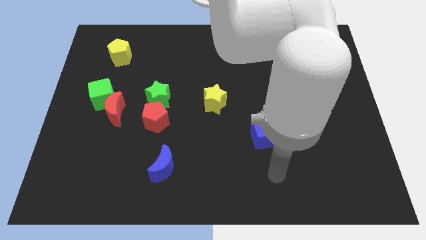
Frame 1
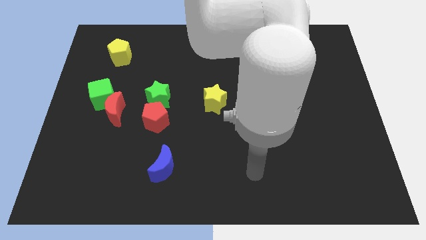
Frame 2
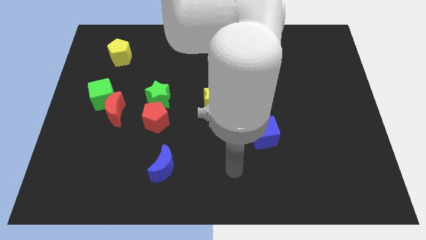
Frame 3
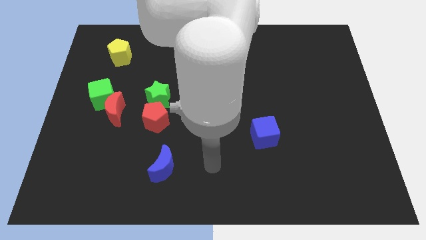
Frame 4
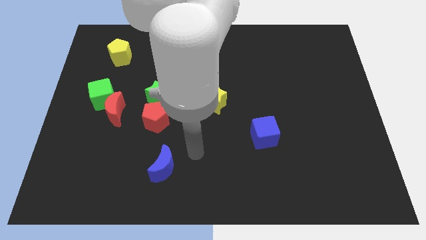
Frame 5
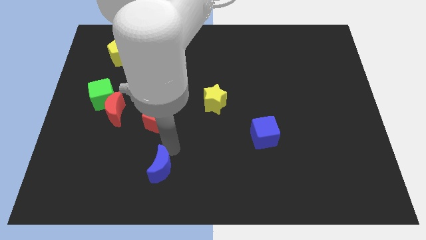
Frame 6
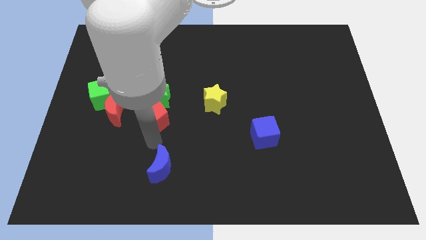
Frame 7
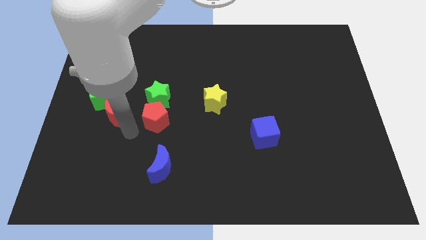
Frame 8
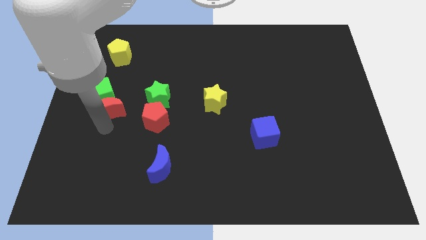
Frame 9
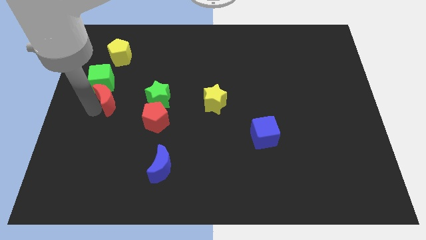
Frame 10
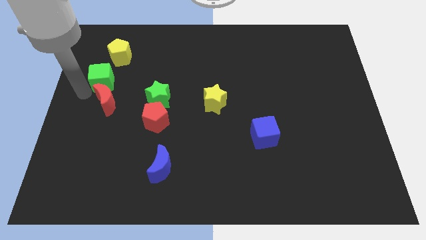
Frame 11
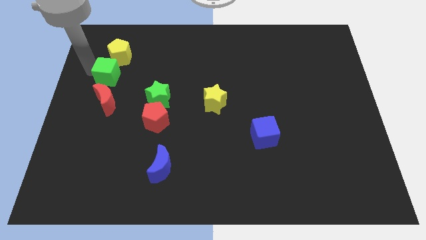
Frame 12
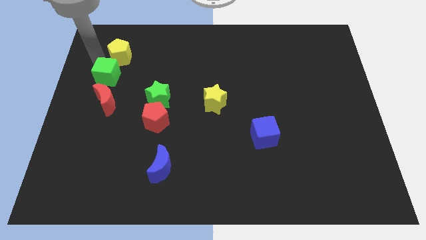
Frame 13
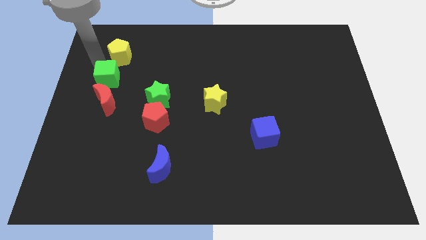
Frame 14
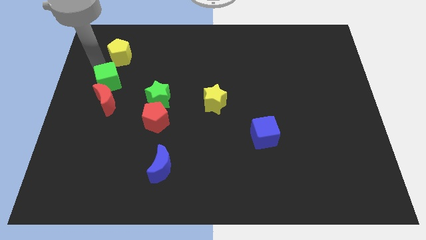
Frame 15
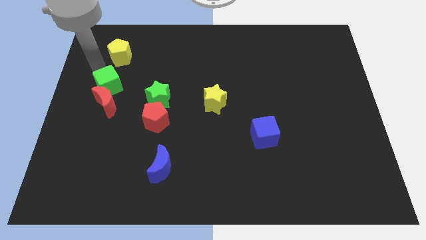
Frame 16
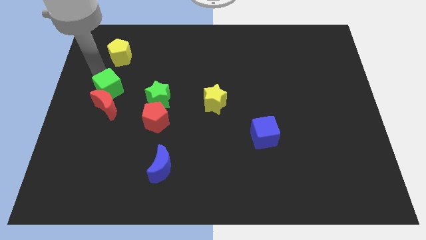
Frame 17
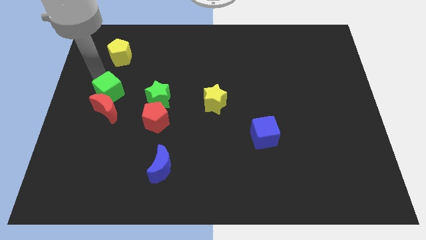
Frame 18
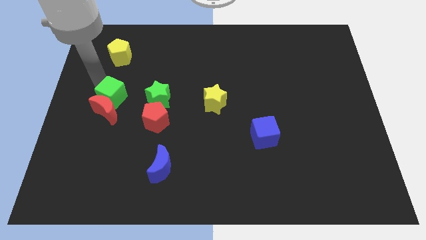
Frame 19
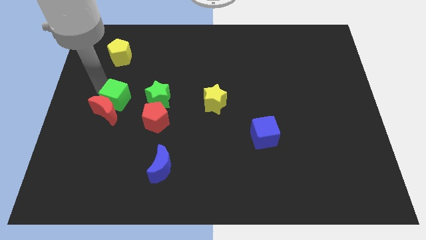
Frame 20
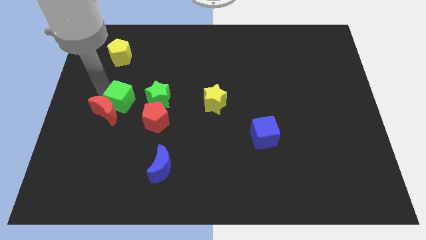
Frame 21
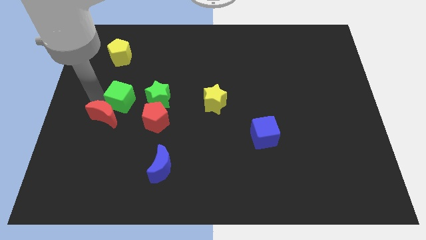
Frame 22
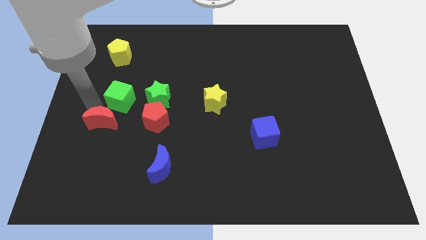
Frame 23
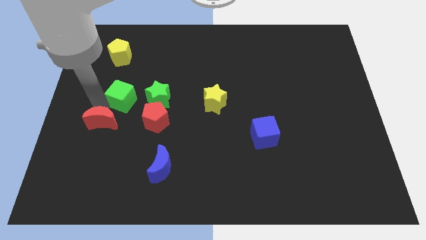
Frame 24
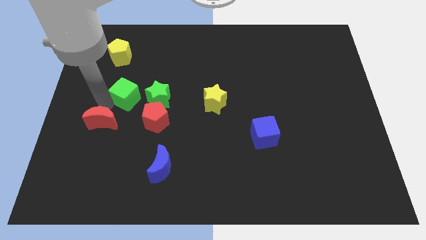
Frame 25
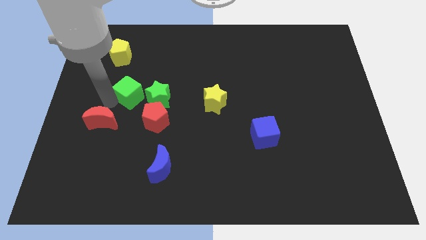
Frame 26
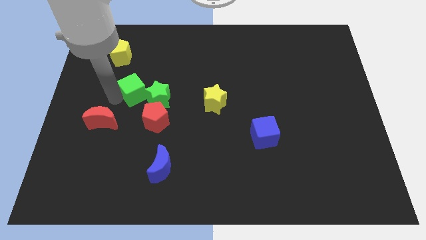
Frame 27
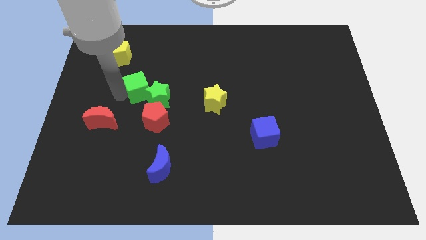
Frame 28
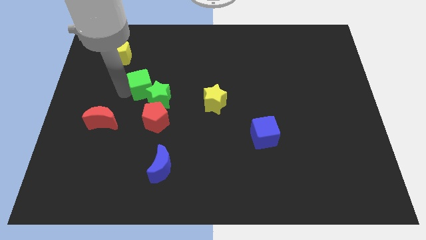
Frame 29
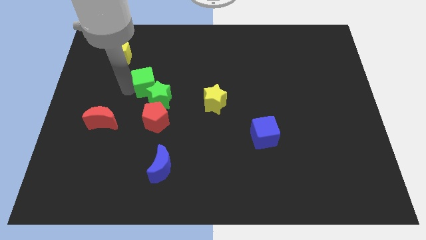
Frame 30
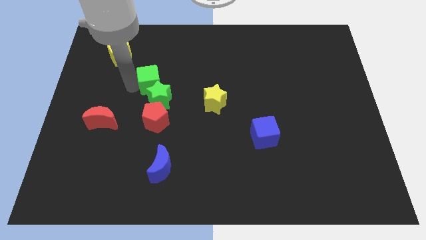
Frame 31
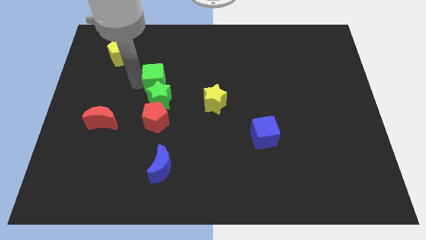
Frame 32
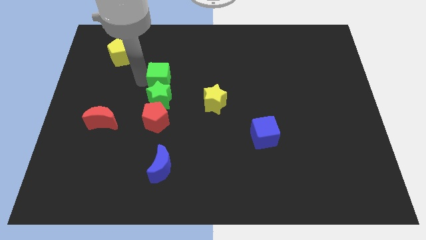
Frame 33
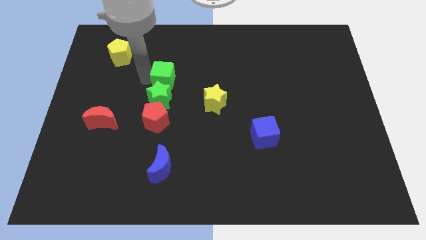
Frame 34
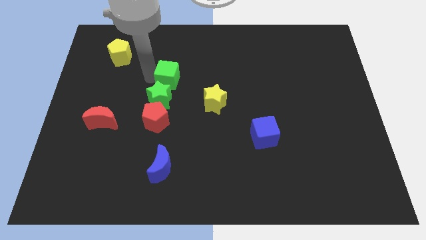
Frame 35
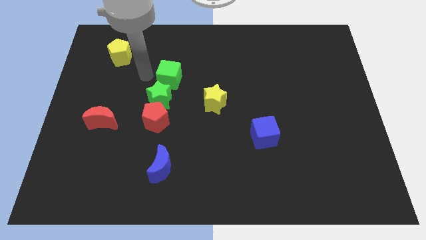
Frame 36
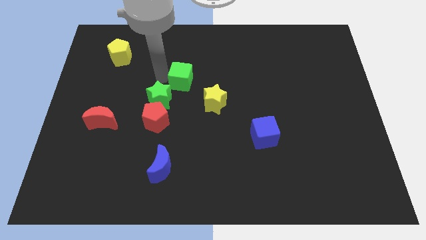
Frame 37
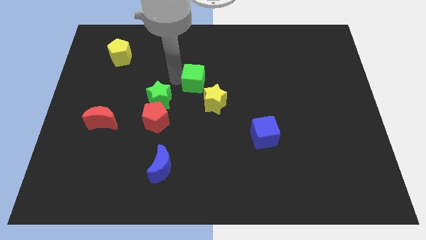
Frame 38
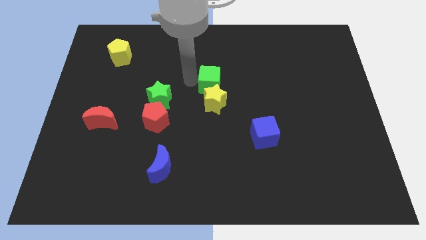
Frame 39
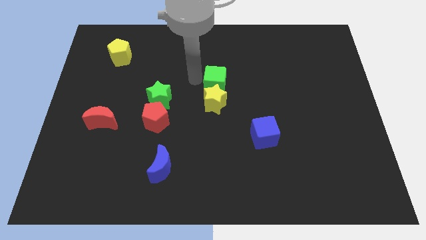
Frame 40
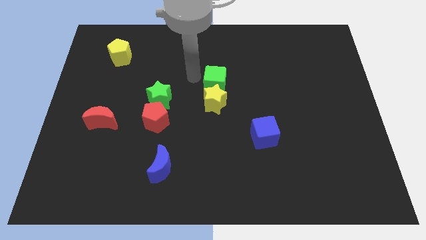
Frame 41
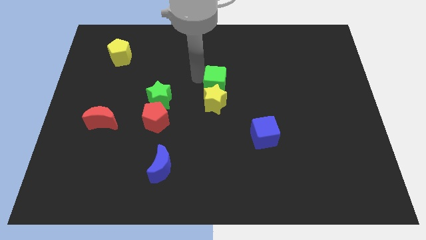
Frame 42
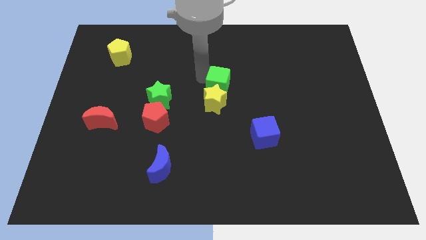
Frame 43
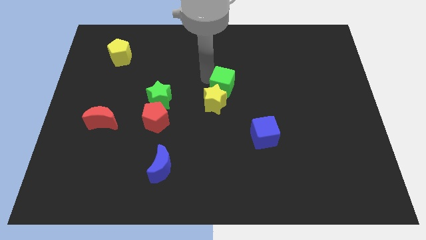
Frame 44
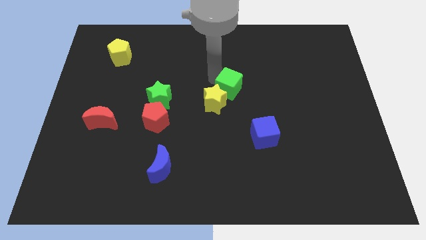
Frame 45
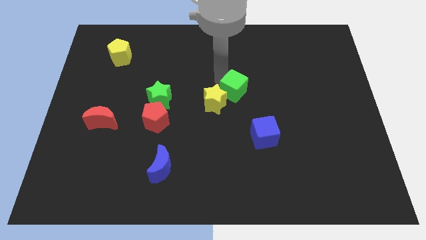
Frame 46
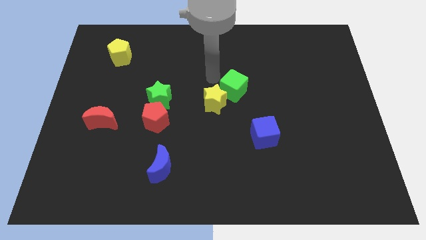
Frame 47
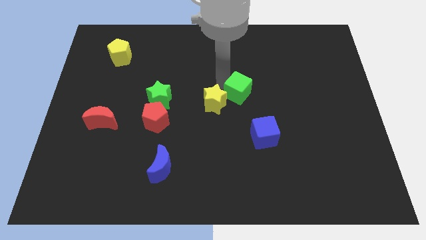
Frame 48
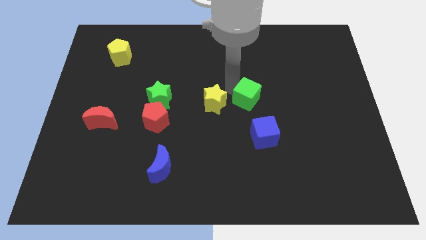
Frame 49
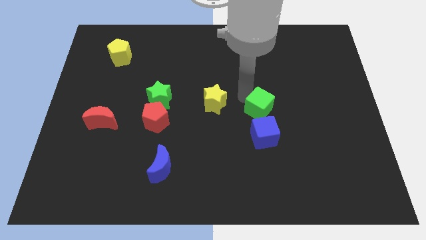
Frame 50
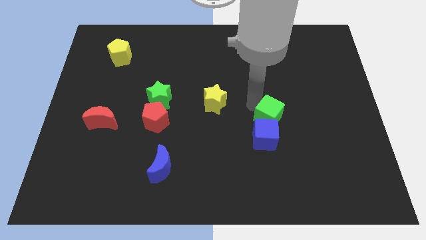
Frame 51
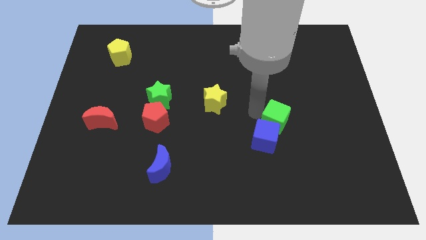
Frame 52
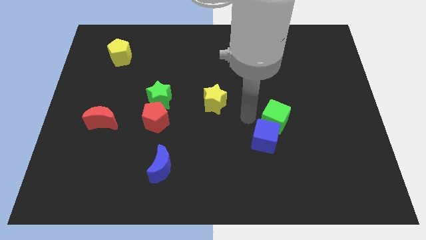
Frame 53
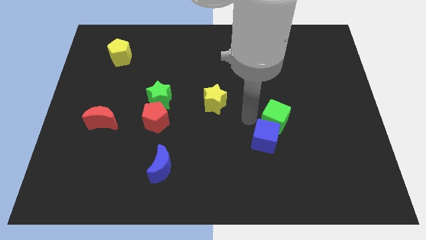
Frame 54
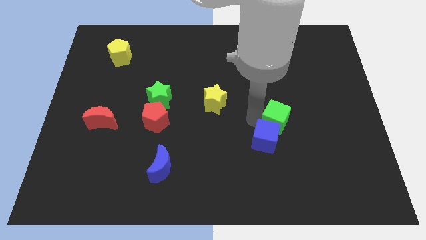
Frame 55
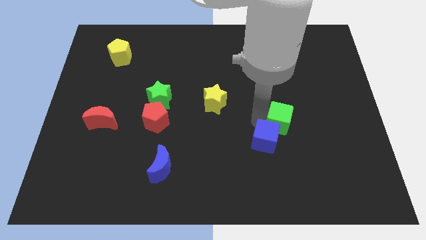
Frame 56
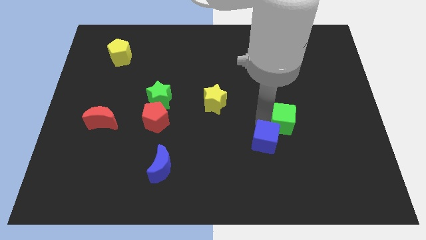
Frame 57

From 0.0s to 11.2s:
put the green cube right of the blue cube

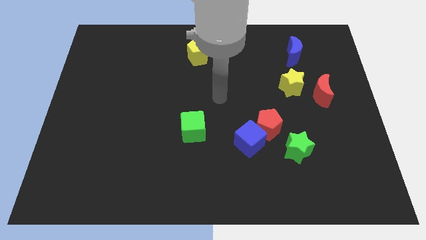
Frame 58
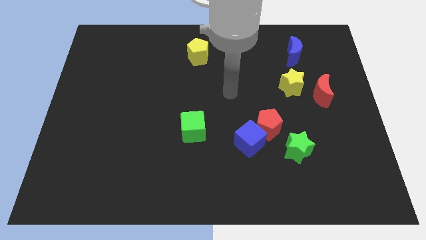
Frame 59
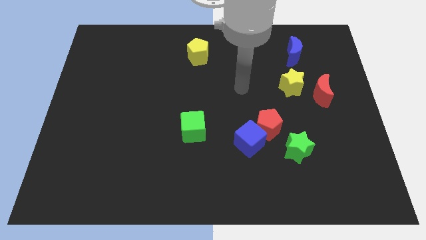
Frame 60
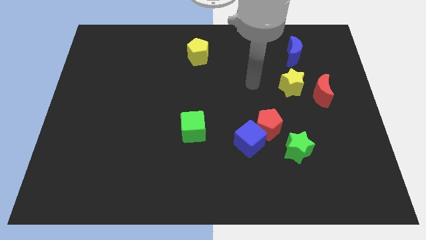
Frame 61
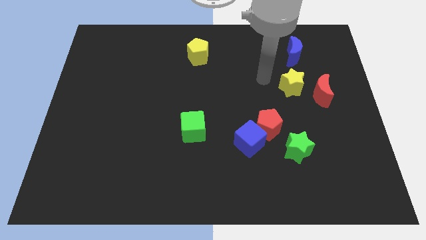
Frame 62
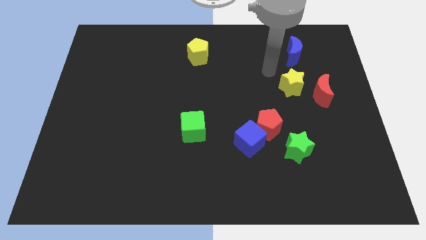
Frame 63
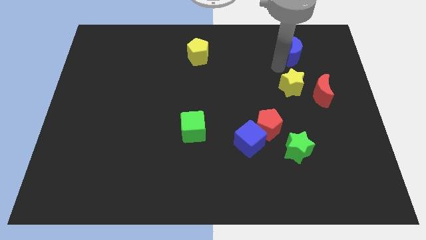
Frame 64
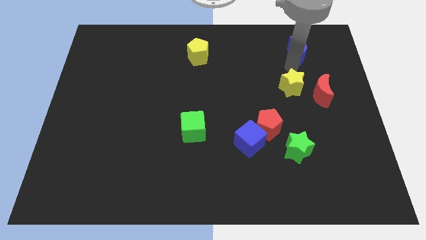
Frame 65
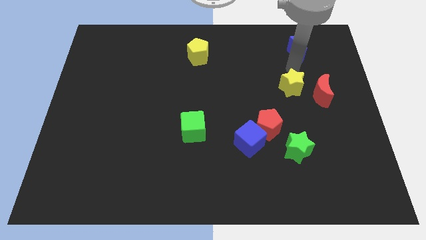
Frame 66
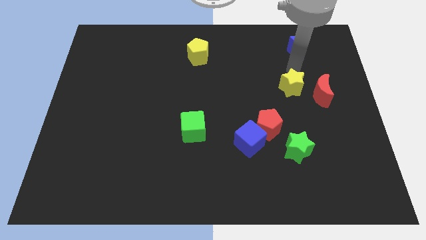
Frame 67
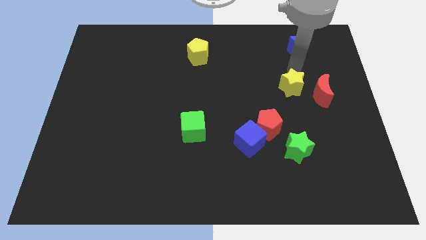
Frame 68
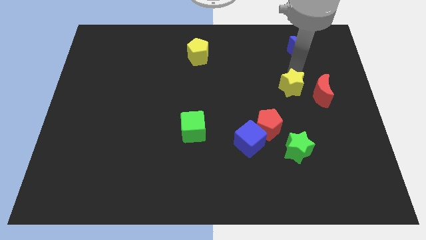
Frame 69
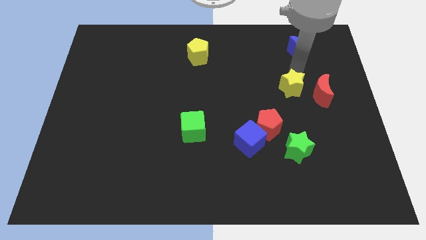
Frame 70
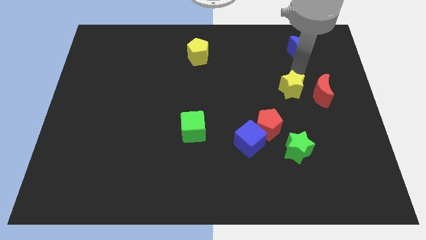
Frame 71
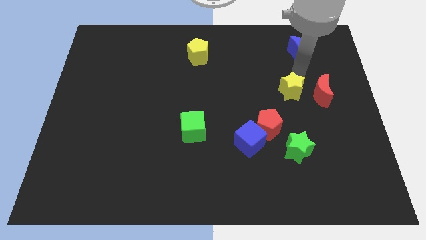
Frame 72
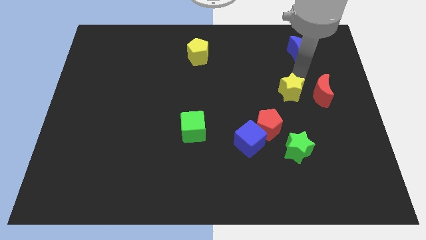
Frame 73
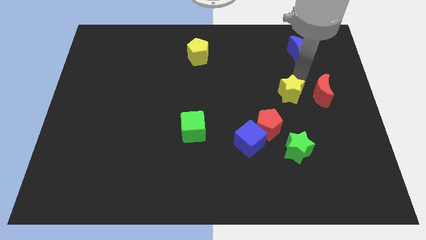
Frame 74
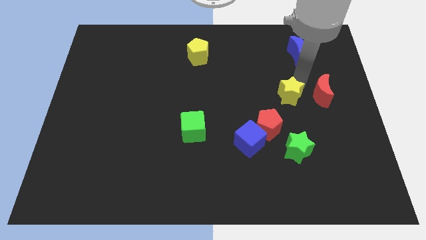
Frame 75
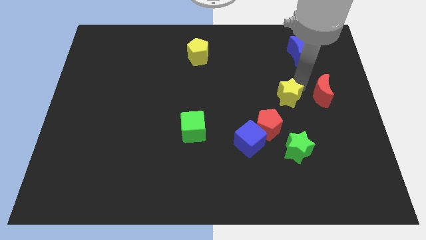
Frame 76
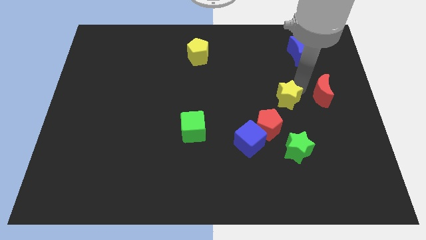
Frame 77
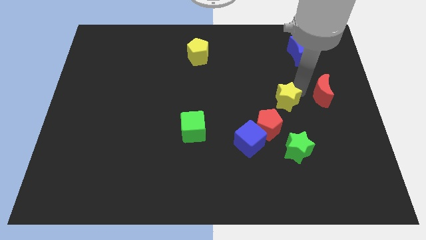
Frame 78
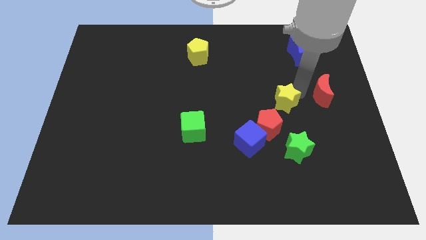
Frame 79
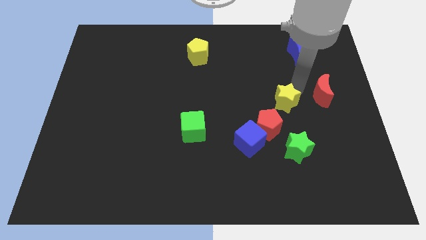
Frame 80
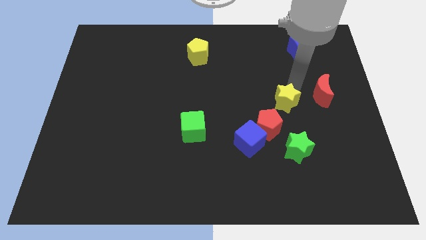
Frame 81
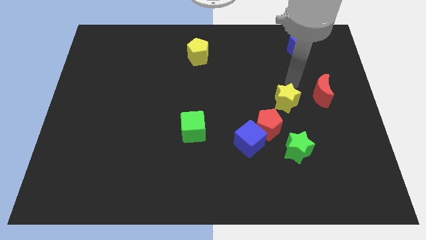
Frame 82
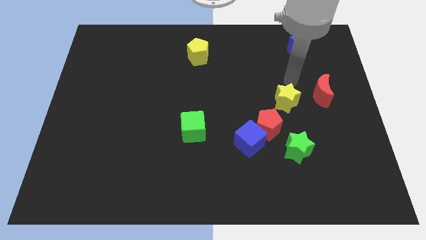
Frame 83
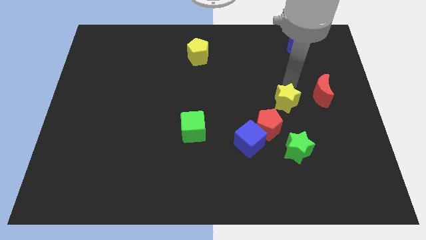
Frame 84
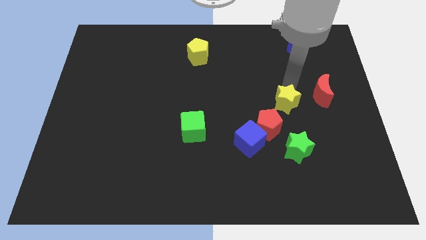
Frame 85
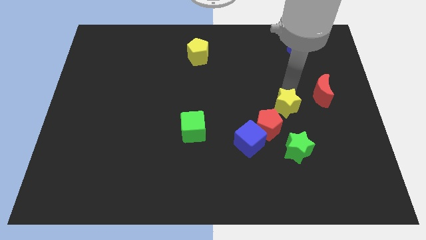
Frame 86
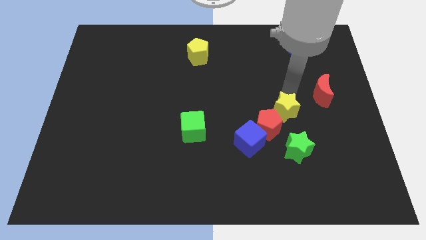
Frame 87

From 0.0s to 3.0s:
slide the yellow star to the top right side of the blue cube
